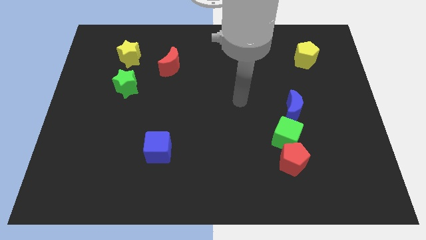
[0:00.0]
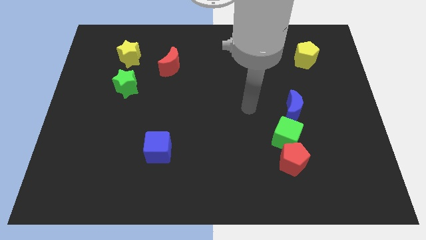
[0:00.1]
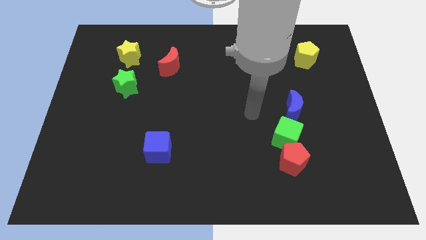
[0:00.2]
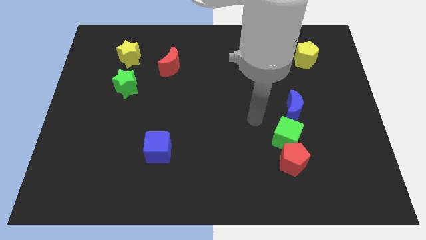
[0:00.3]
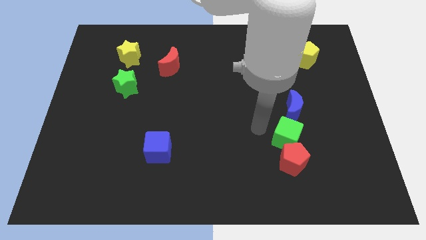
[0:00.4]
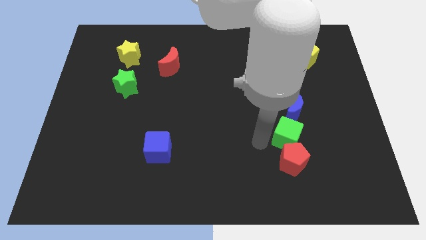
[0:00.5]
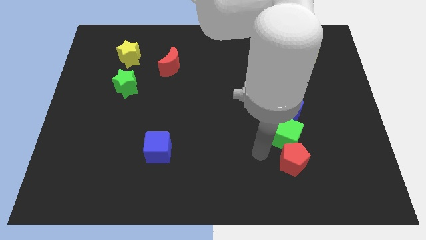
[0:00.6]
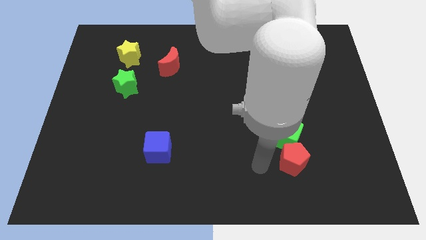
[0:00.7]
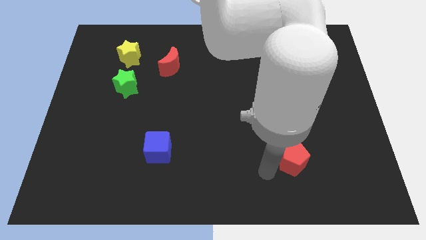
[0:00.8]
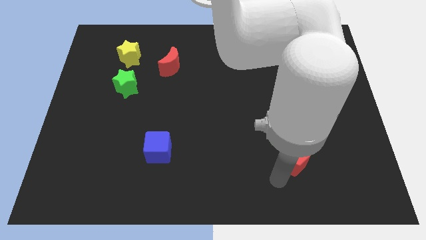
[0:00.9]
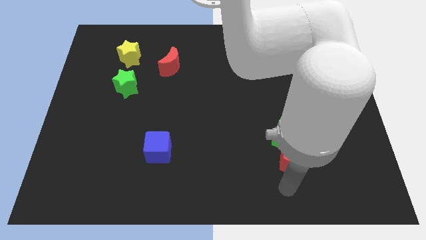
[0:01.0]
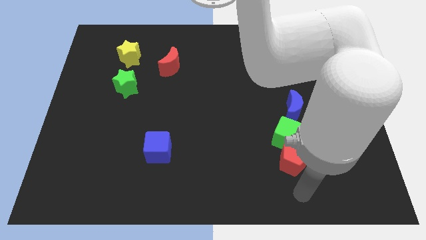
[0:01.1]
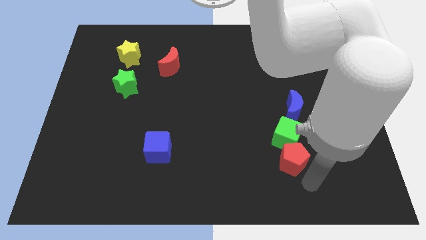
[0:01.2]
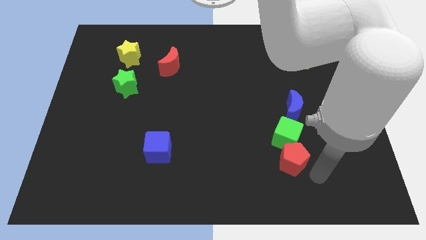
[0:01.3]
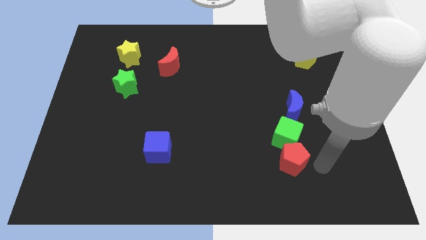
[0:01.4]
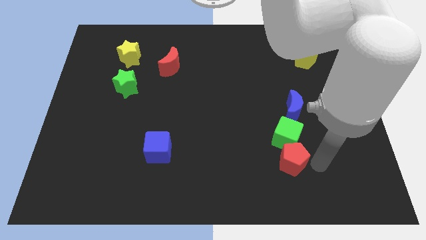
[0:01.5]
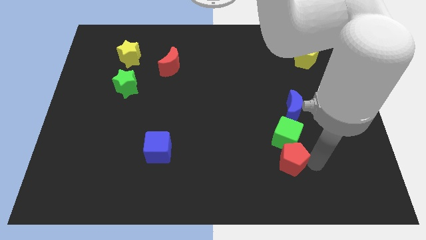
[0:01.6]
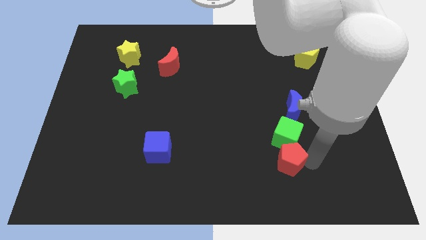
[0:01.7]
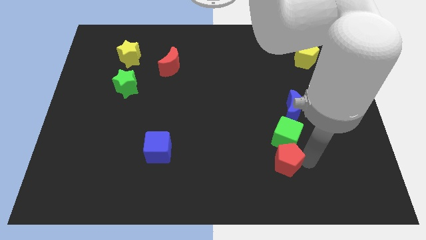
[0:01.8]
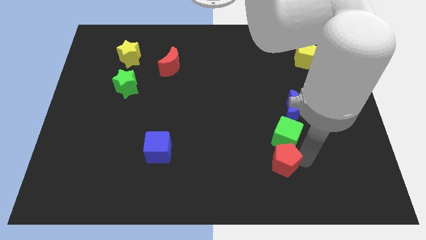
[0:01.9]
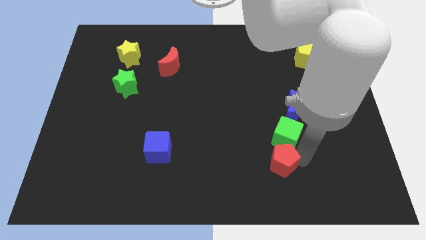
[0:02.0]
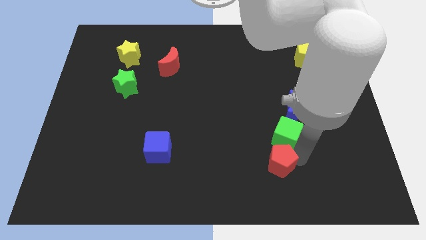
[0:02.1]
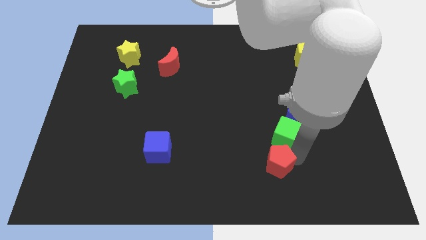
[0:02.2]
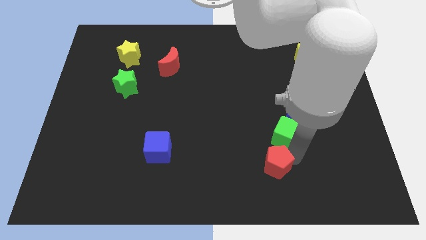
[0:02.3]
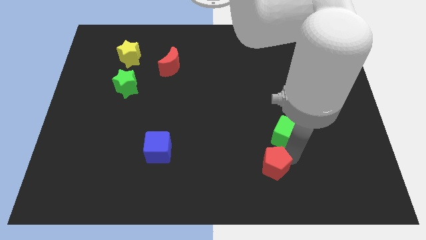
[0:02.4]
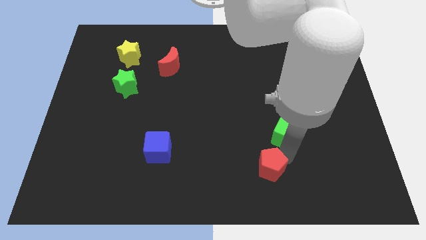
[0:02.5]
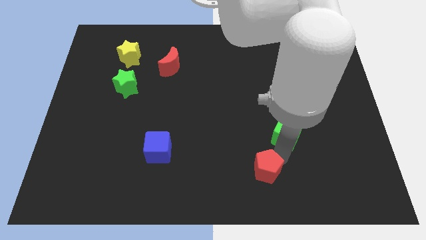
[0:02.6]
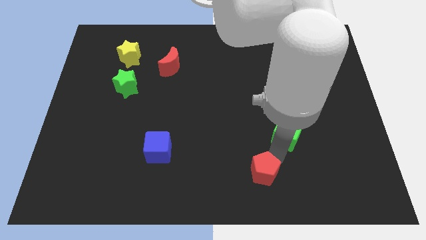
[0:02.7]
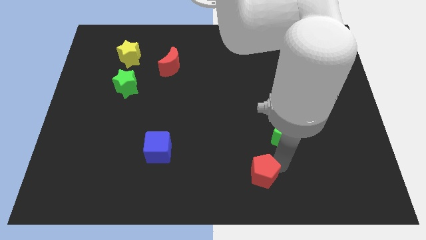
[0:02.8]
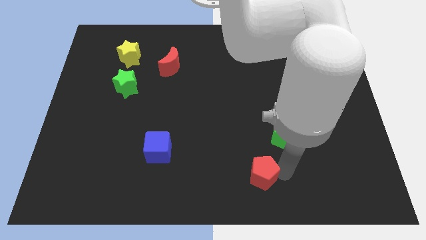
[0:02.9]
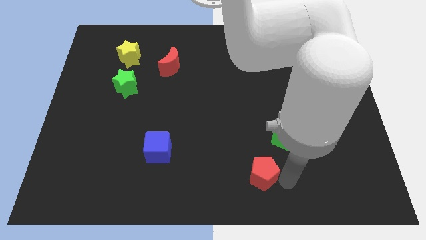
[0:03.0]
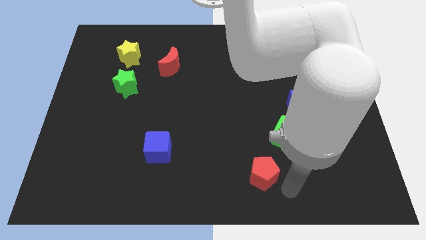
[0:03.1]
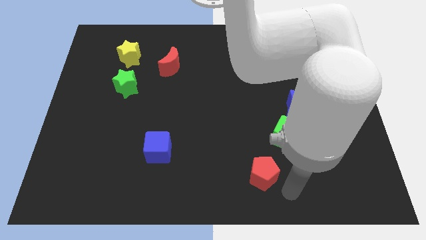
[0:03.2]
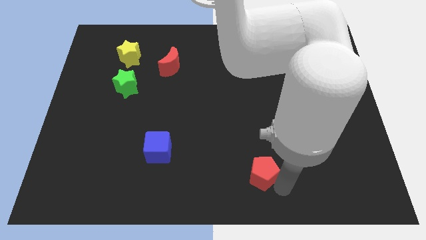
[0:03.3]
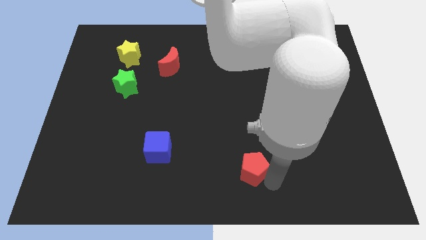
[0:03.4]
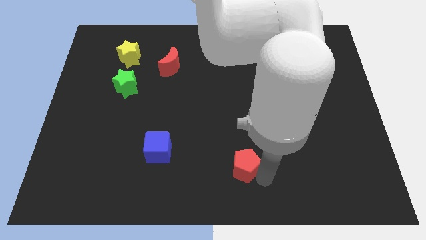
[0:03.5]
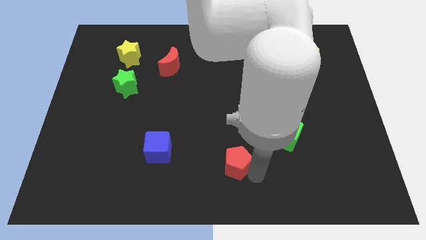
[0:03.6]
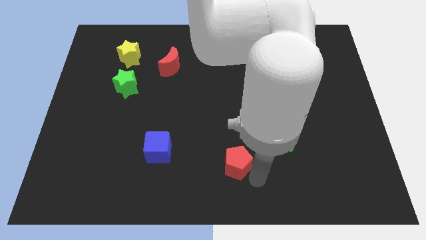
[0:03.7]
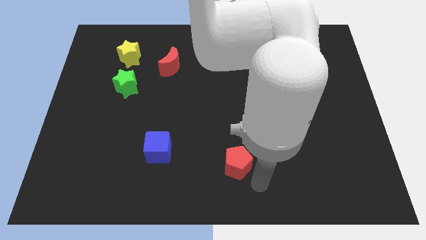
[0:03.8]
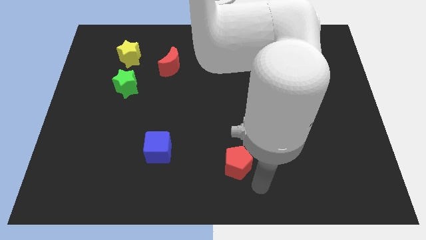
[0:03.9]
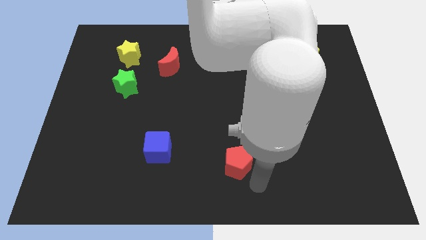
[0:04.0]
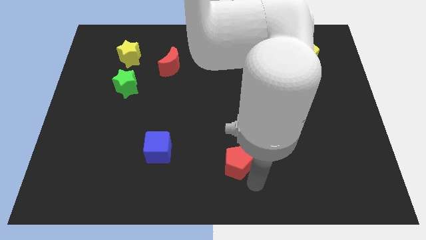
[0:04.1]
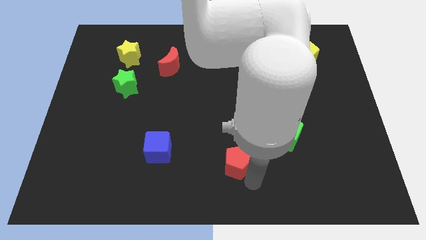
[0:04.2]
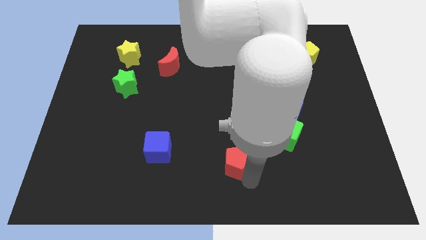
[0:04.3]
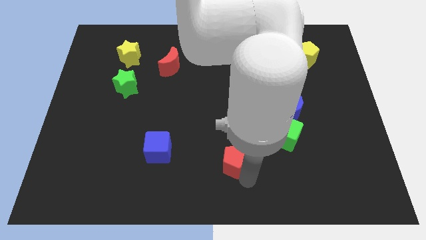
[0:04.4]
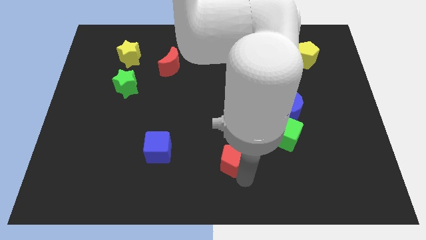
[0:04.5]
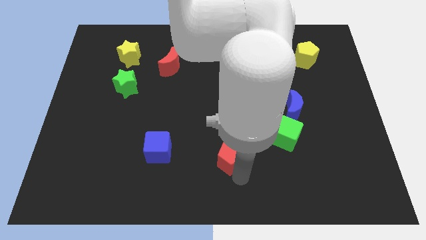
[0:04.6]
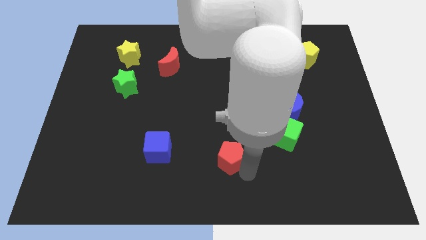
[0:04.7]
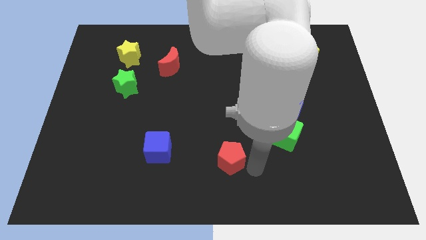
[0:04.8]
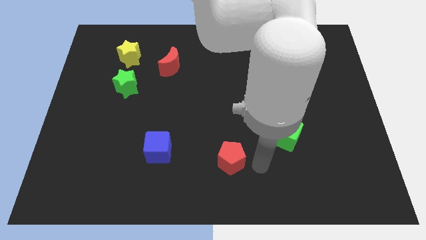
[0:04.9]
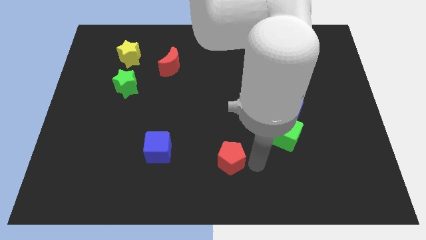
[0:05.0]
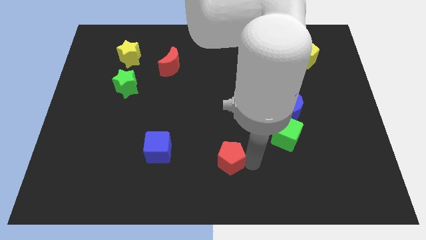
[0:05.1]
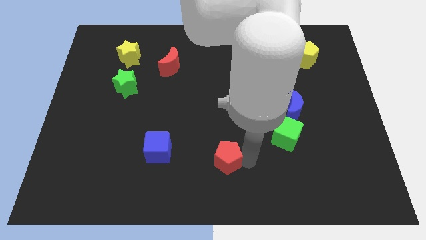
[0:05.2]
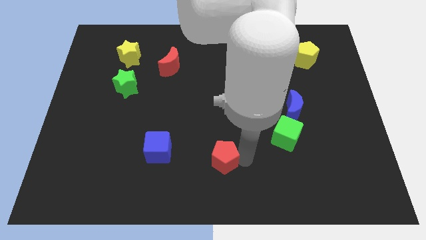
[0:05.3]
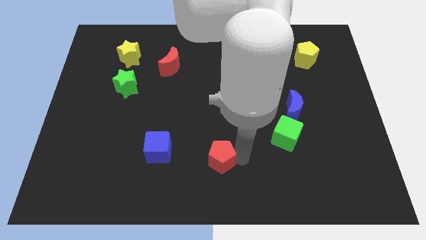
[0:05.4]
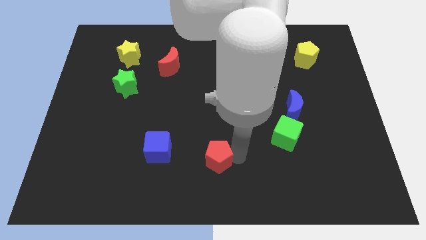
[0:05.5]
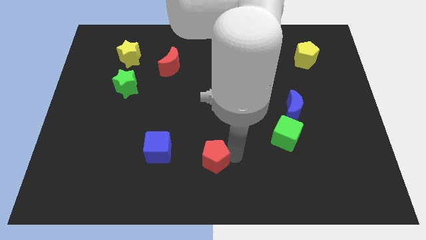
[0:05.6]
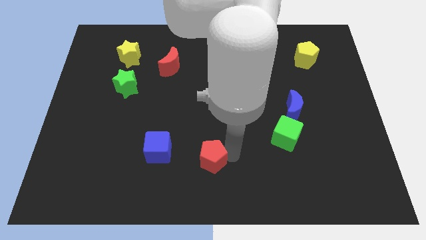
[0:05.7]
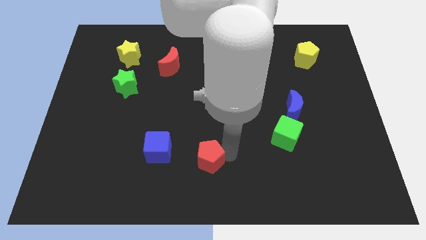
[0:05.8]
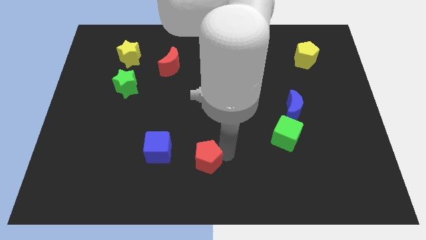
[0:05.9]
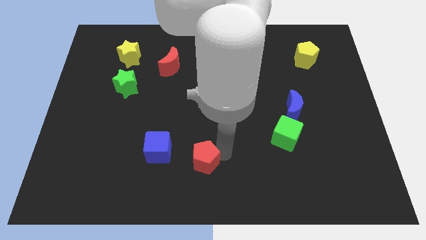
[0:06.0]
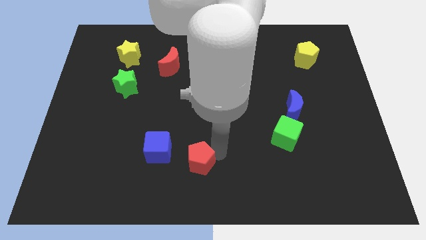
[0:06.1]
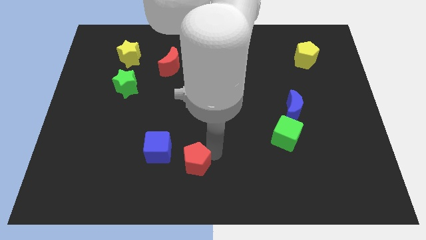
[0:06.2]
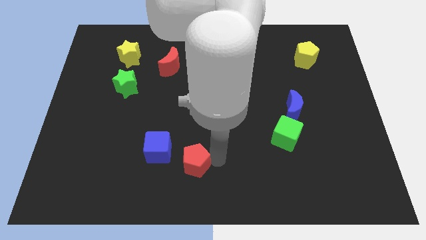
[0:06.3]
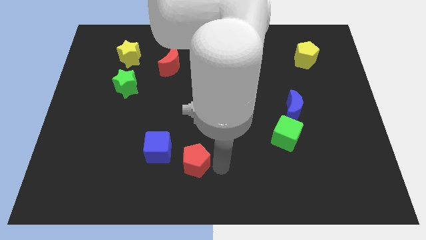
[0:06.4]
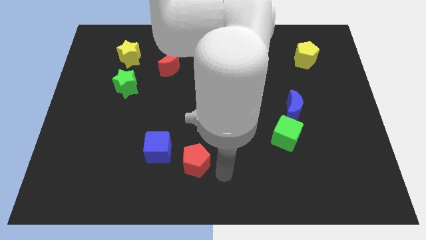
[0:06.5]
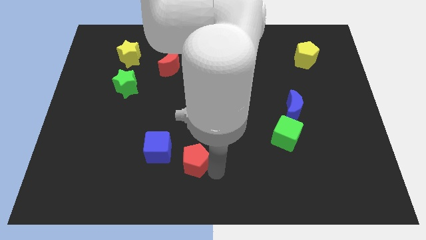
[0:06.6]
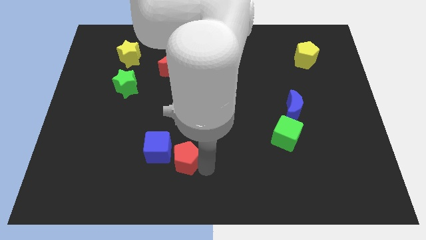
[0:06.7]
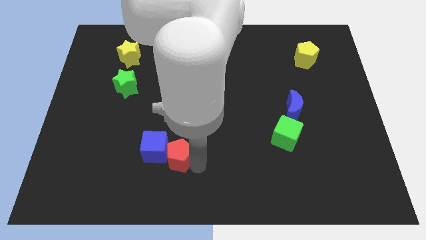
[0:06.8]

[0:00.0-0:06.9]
slide the red pentagon towards the blue cube

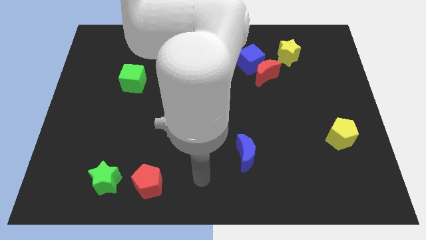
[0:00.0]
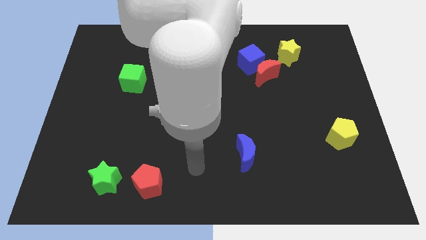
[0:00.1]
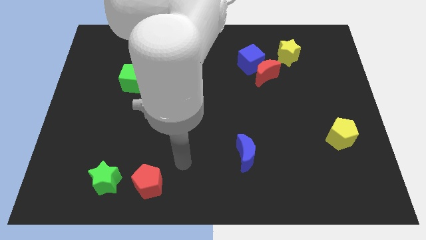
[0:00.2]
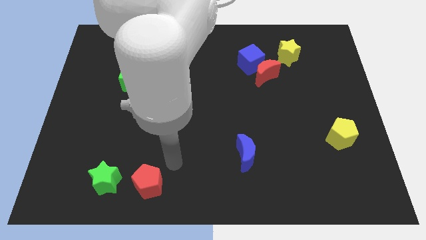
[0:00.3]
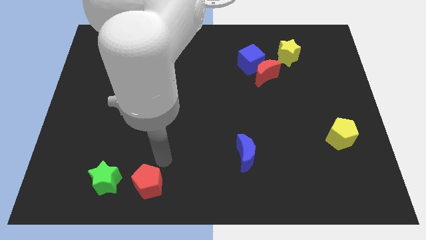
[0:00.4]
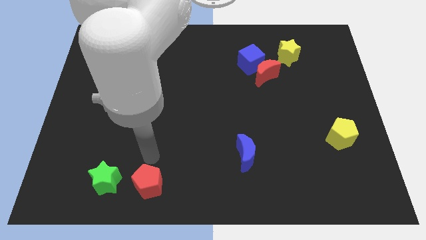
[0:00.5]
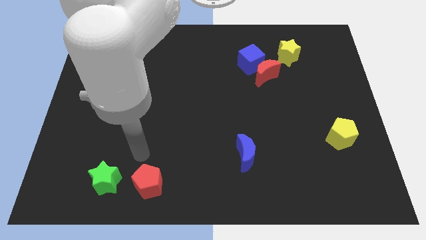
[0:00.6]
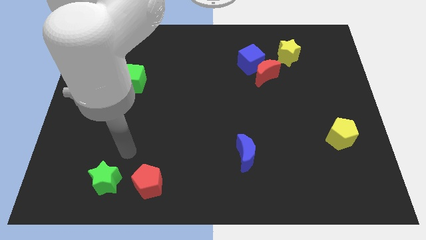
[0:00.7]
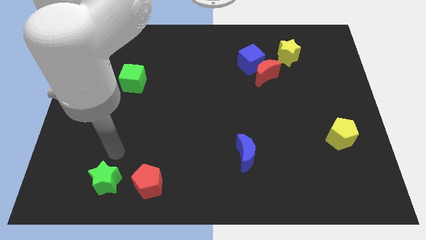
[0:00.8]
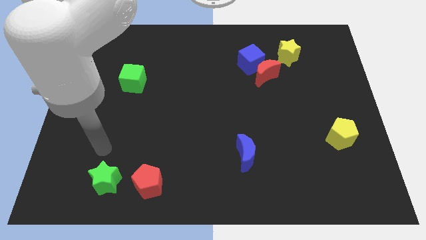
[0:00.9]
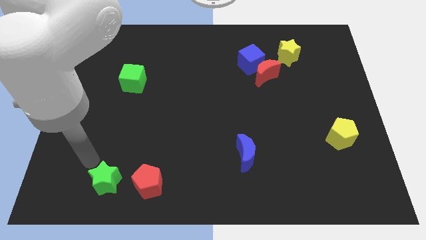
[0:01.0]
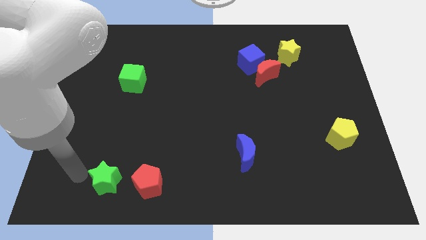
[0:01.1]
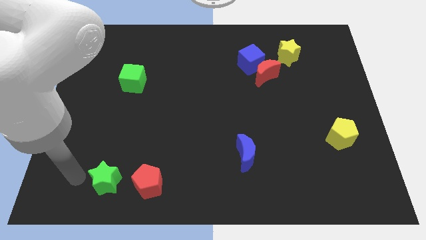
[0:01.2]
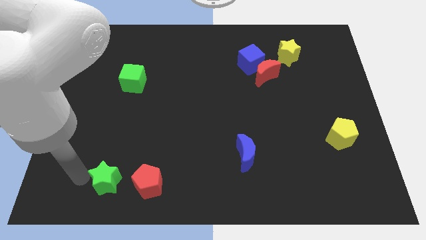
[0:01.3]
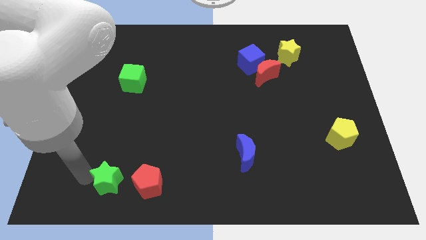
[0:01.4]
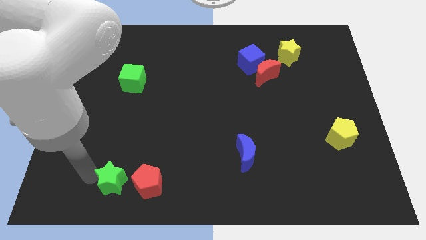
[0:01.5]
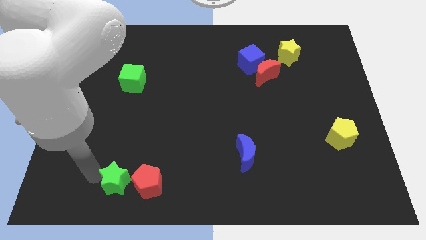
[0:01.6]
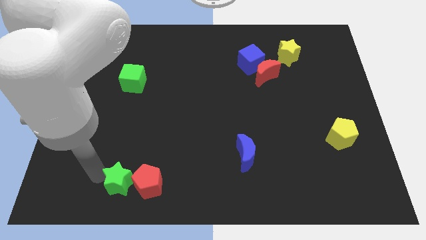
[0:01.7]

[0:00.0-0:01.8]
push the green star to the red pentagon
